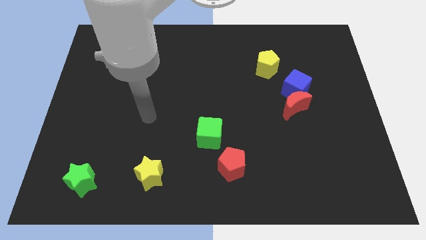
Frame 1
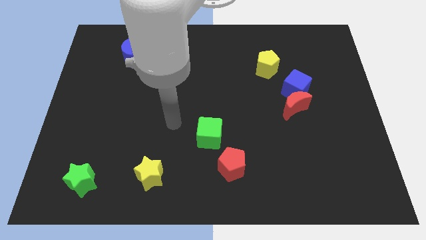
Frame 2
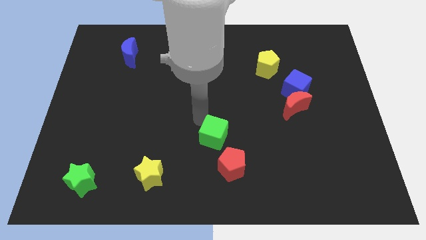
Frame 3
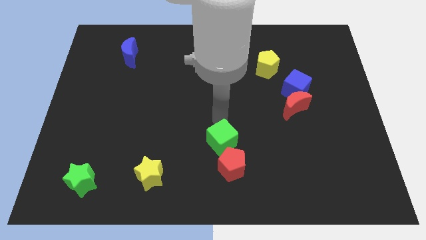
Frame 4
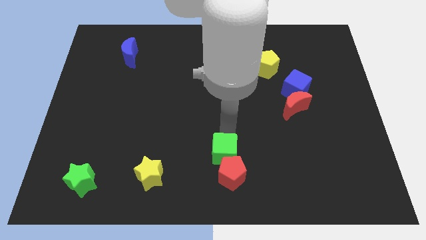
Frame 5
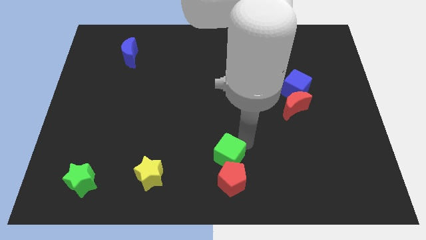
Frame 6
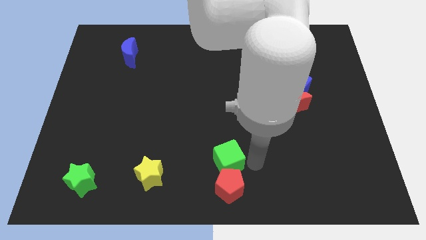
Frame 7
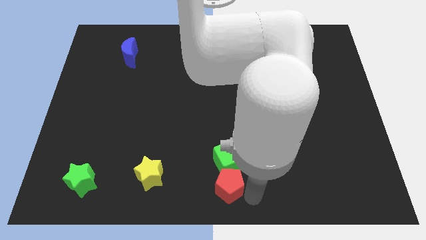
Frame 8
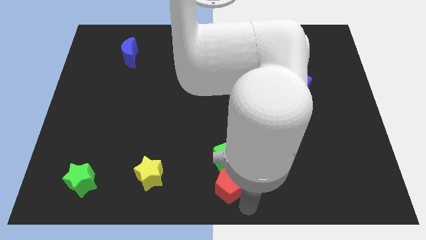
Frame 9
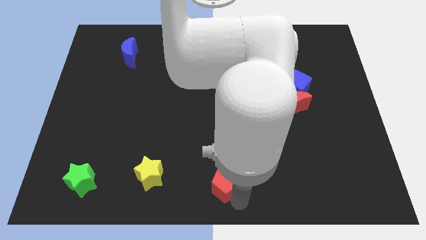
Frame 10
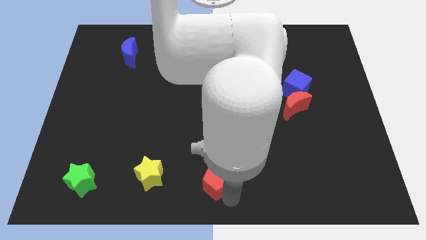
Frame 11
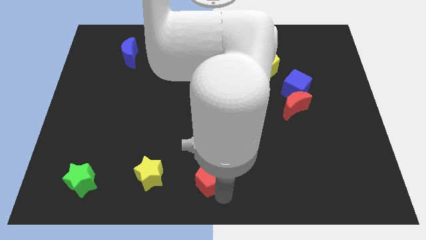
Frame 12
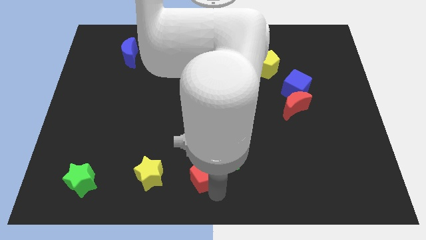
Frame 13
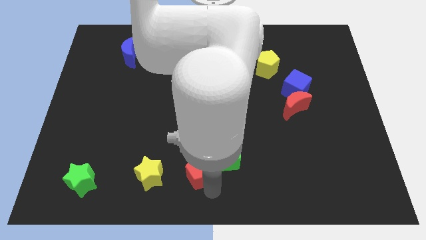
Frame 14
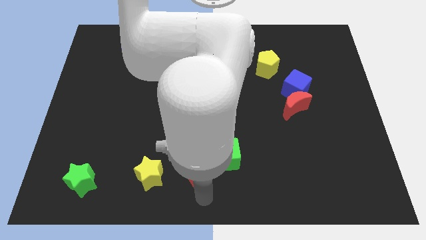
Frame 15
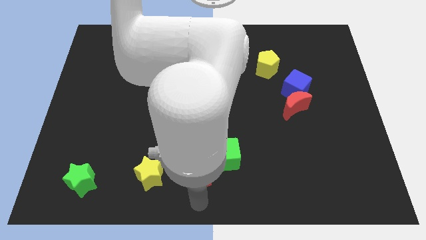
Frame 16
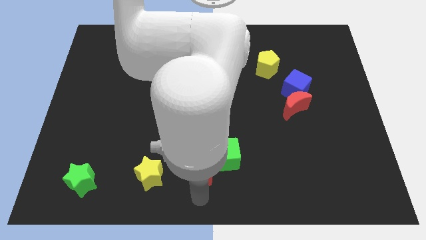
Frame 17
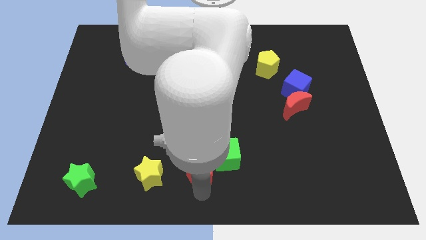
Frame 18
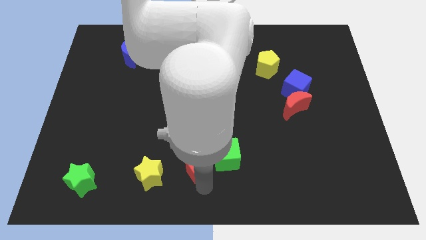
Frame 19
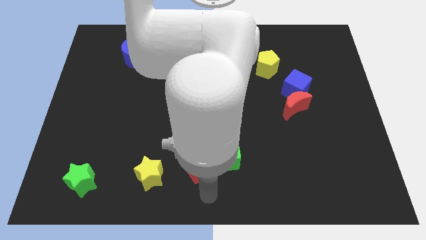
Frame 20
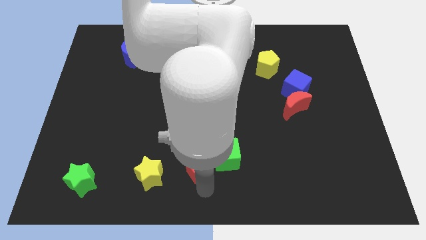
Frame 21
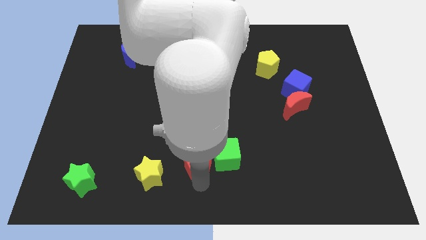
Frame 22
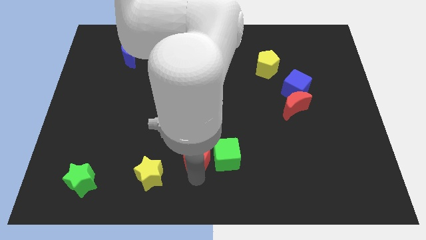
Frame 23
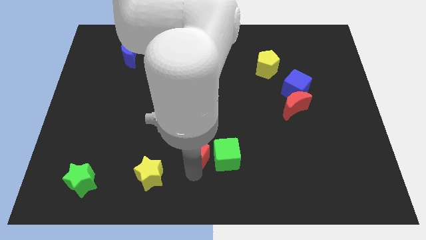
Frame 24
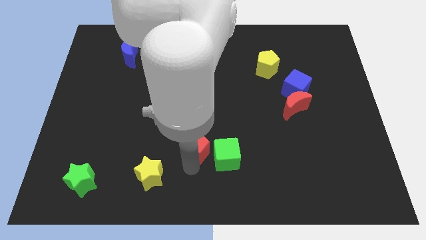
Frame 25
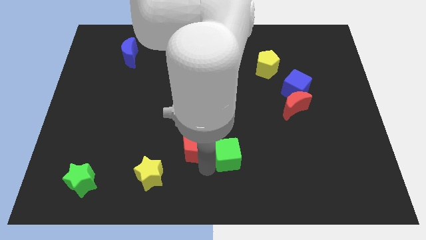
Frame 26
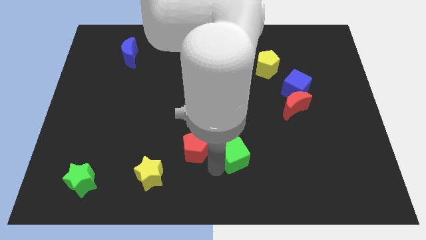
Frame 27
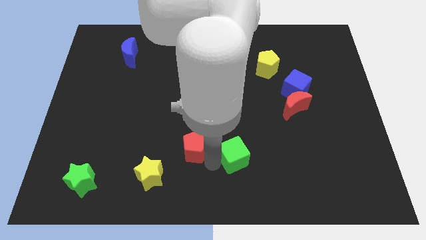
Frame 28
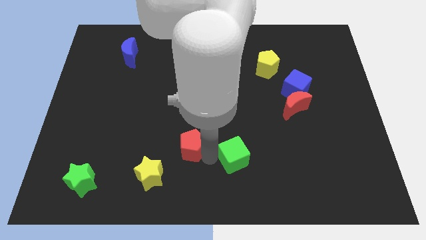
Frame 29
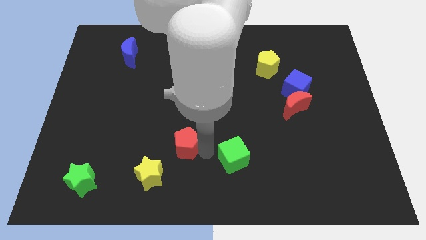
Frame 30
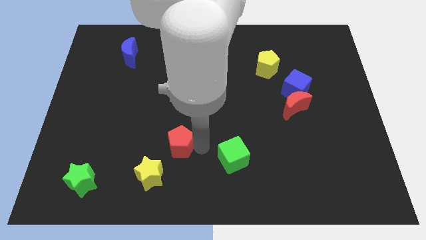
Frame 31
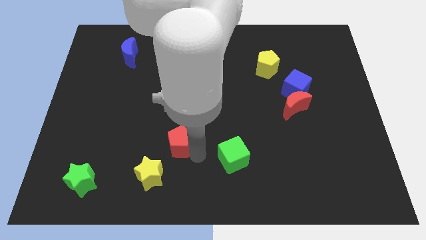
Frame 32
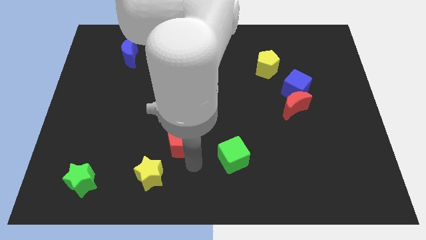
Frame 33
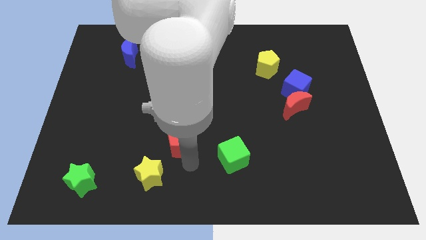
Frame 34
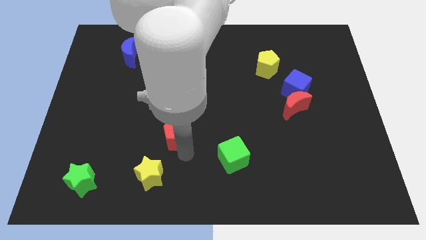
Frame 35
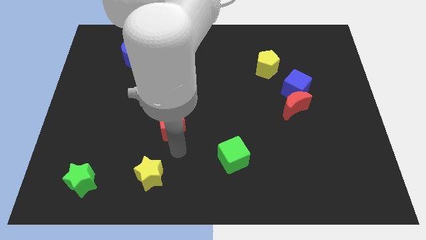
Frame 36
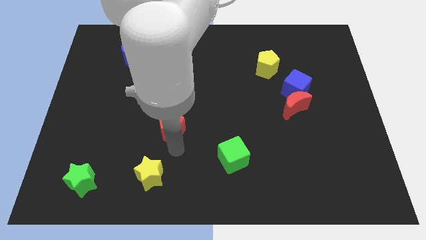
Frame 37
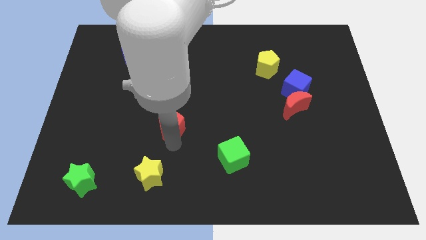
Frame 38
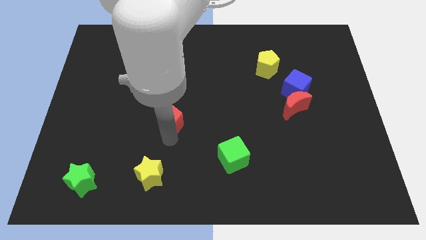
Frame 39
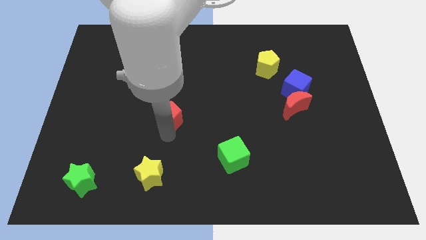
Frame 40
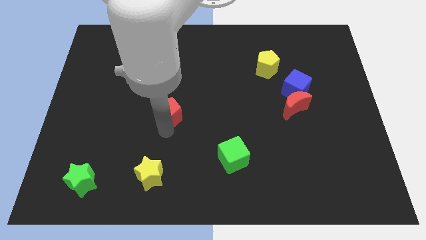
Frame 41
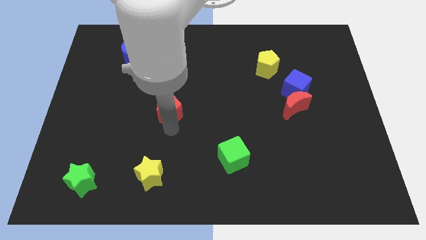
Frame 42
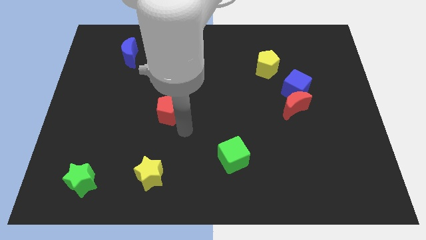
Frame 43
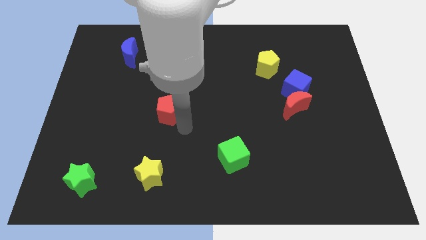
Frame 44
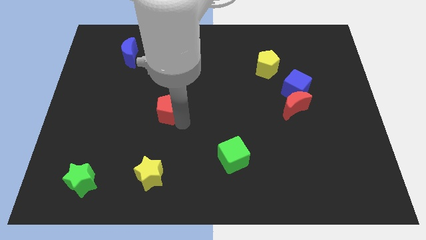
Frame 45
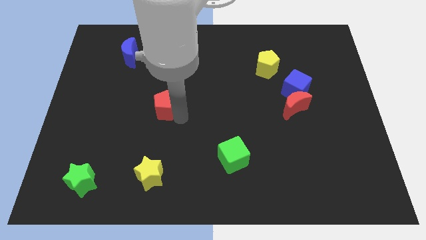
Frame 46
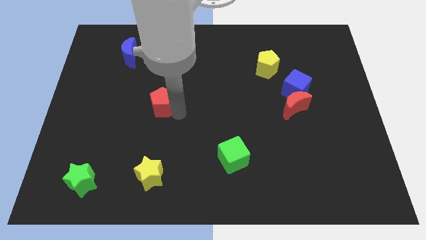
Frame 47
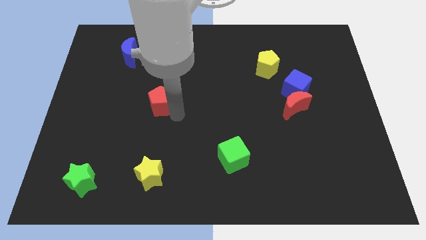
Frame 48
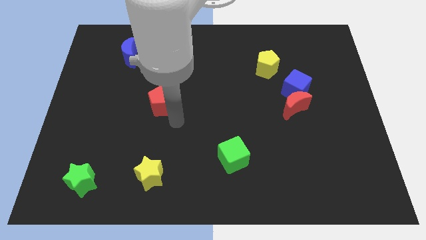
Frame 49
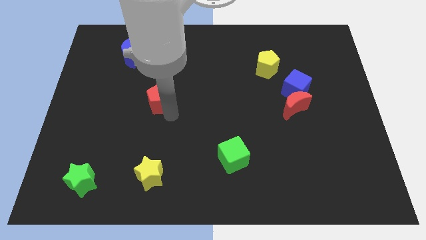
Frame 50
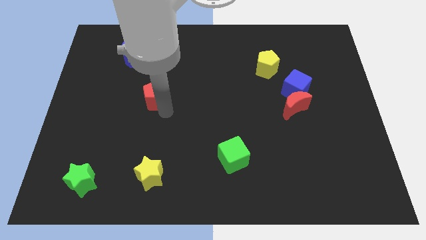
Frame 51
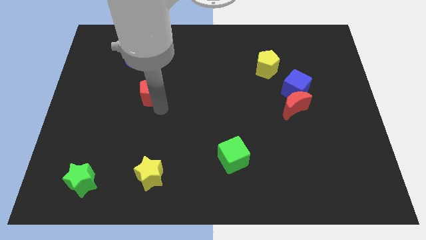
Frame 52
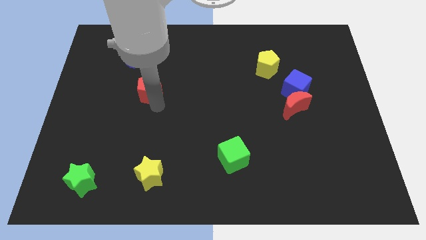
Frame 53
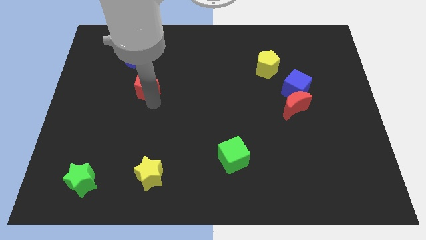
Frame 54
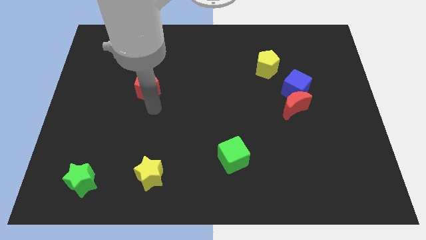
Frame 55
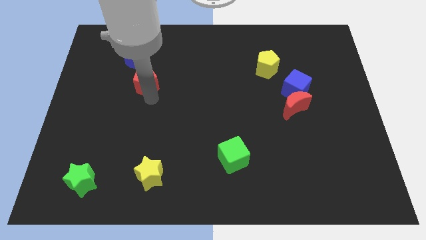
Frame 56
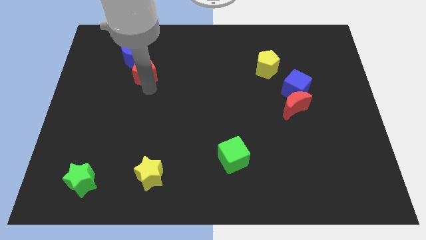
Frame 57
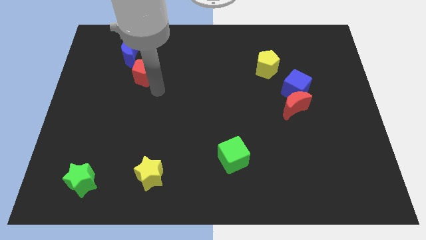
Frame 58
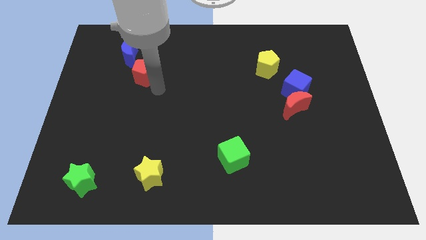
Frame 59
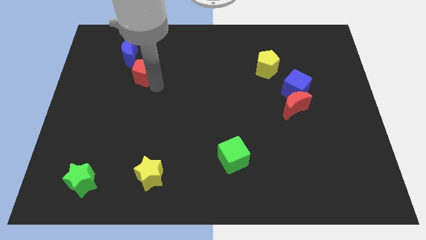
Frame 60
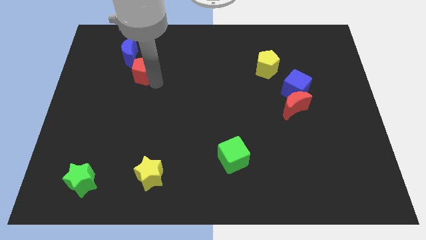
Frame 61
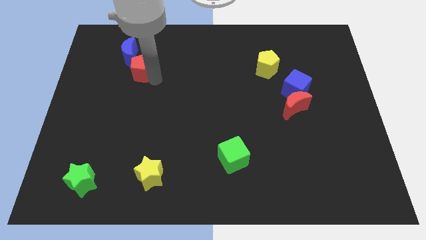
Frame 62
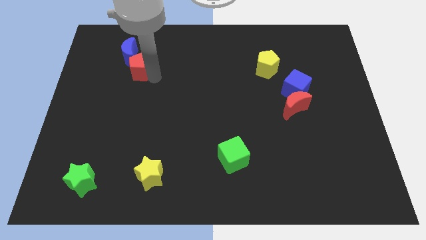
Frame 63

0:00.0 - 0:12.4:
slide the red pentagon next to the blue moon

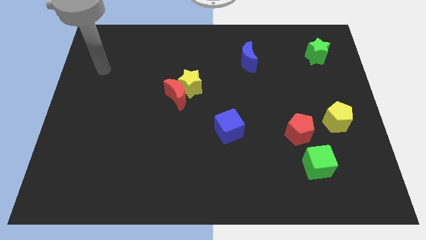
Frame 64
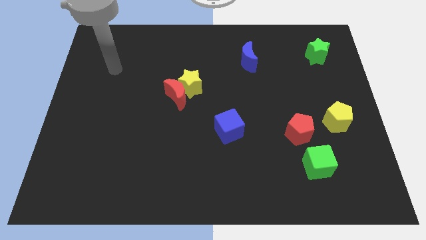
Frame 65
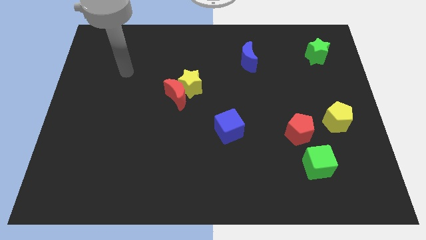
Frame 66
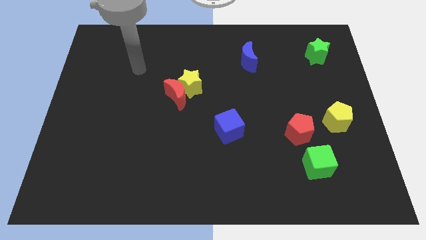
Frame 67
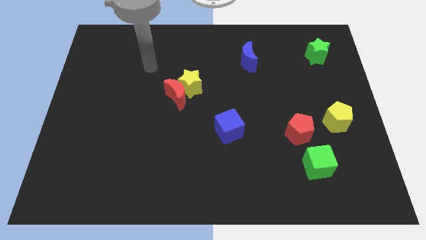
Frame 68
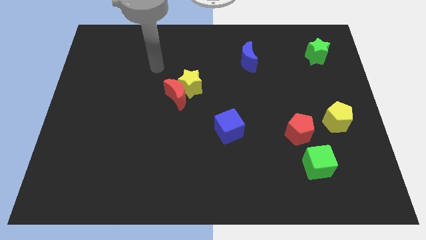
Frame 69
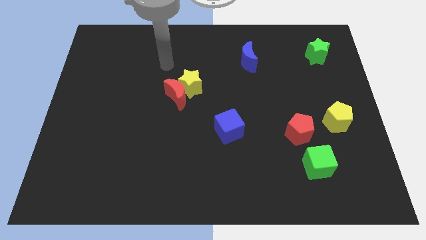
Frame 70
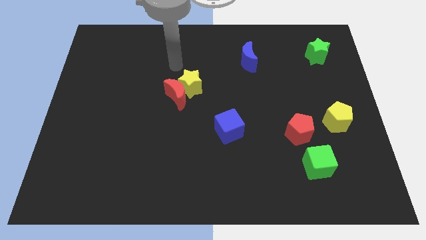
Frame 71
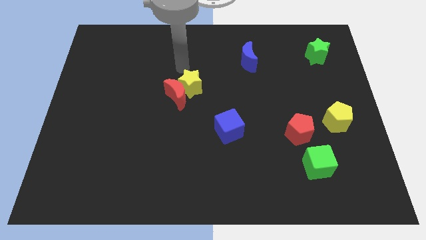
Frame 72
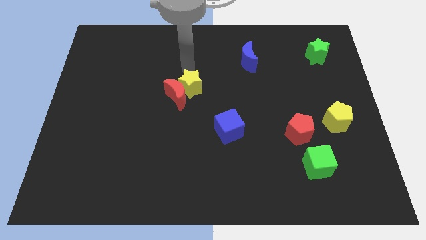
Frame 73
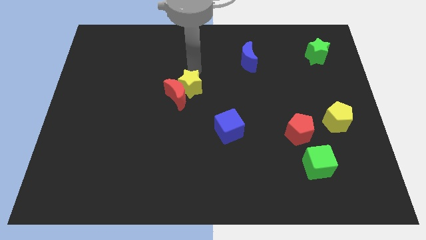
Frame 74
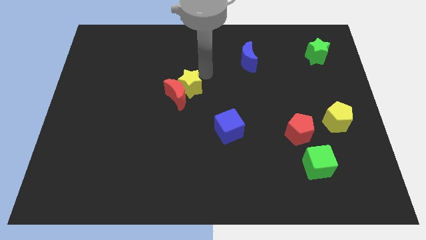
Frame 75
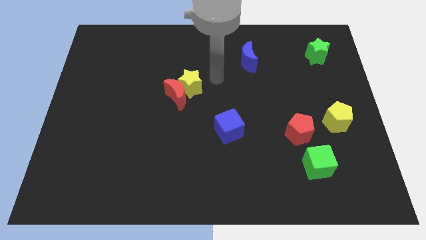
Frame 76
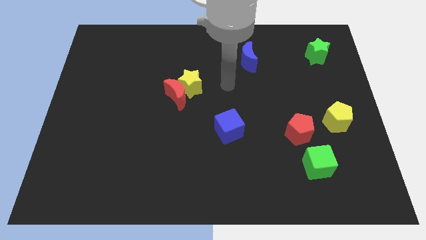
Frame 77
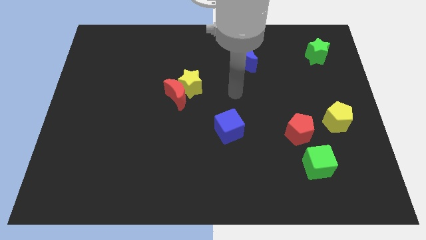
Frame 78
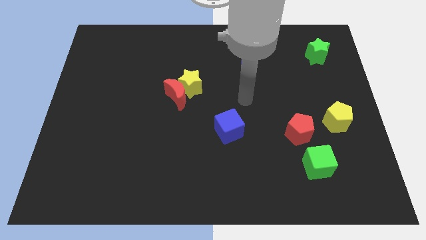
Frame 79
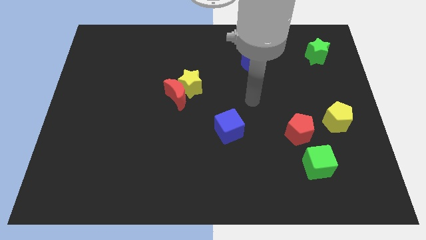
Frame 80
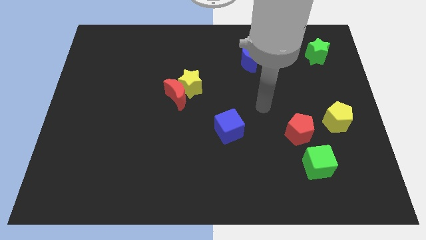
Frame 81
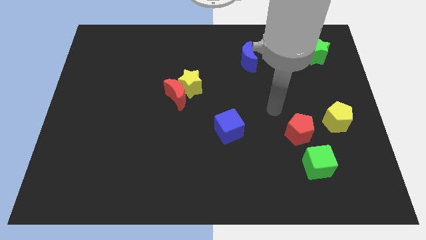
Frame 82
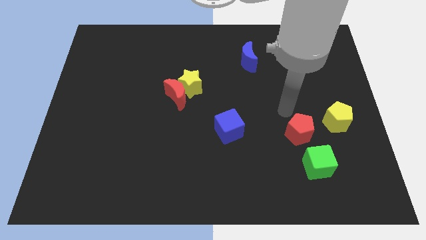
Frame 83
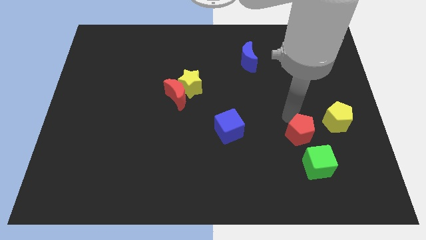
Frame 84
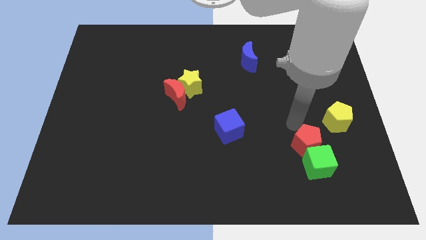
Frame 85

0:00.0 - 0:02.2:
slide the red pentagon towards the green cube
